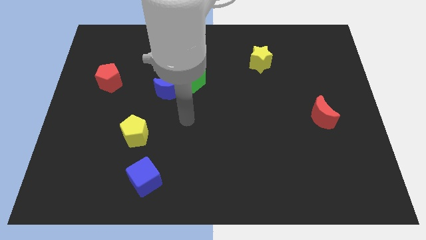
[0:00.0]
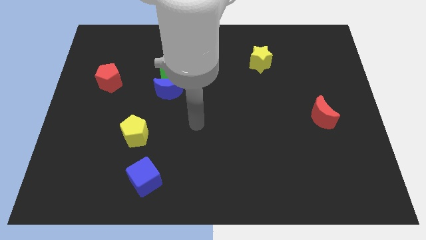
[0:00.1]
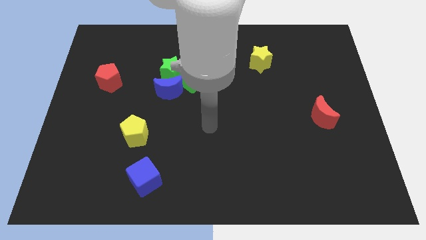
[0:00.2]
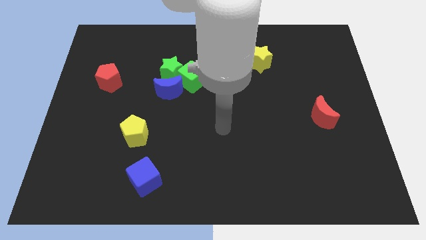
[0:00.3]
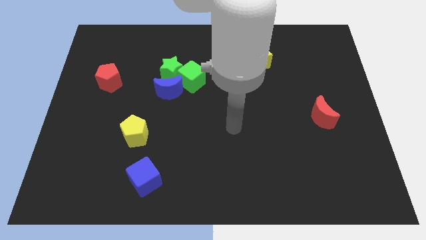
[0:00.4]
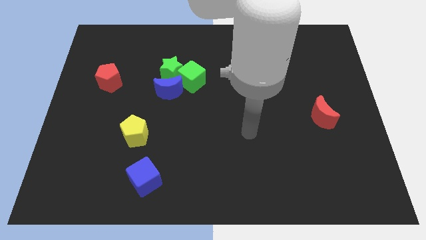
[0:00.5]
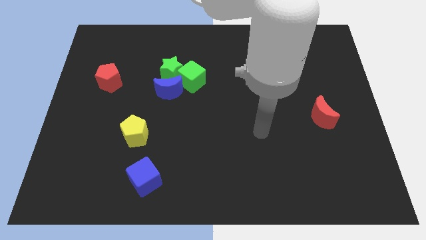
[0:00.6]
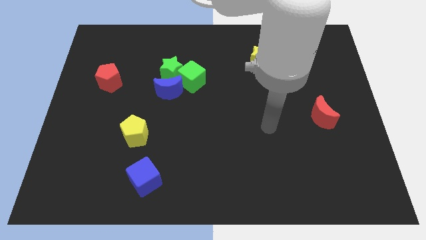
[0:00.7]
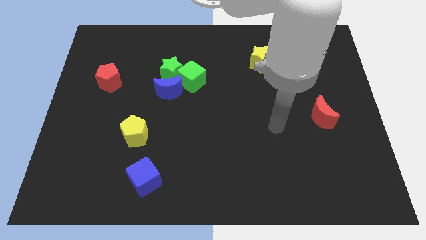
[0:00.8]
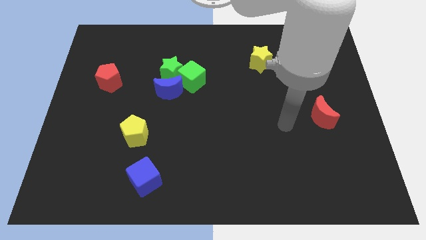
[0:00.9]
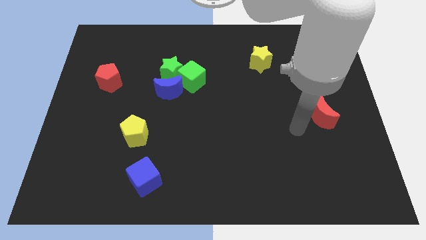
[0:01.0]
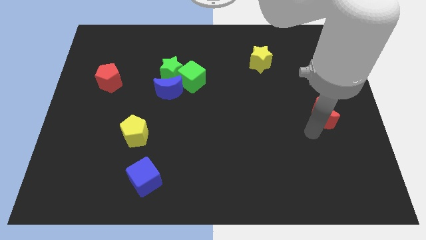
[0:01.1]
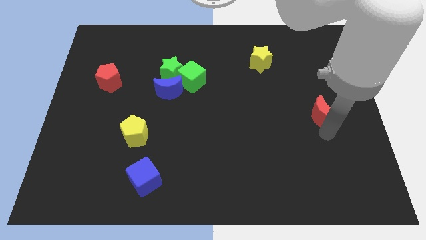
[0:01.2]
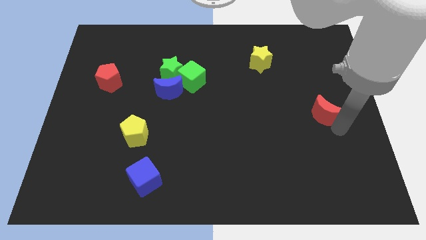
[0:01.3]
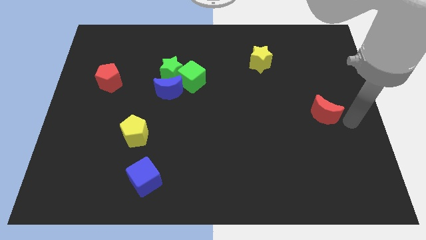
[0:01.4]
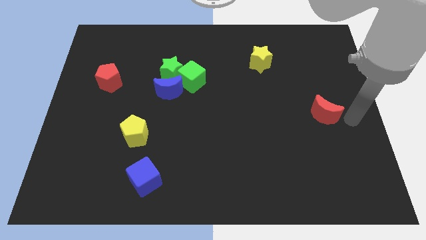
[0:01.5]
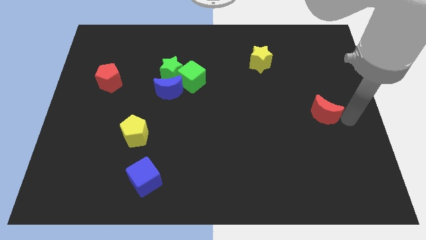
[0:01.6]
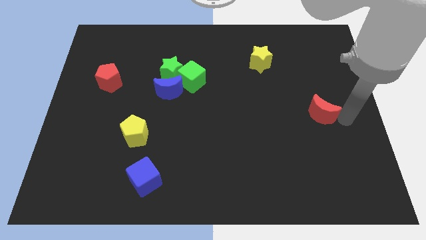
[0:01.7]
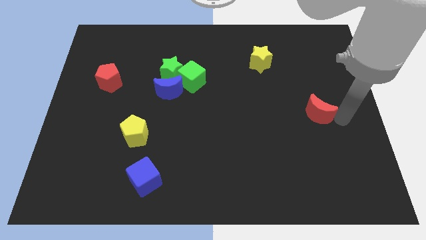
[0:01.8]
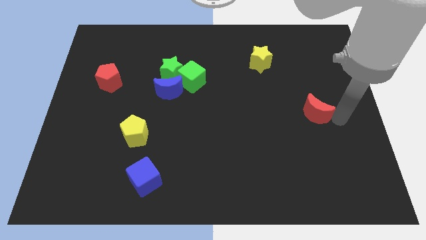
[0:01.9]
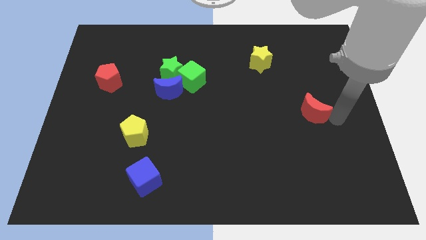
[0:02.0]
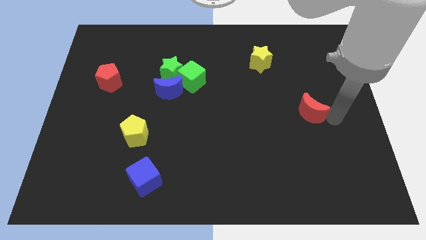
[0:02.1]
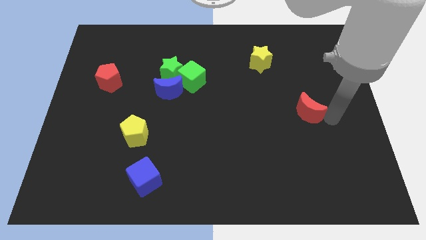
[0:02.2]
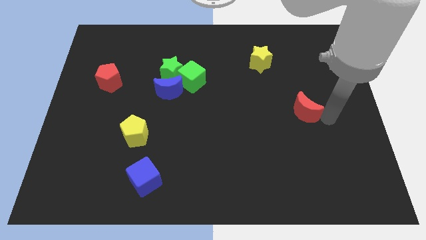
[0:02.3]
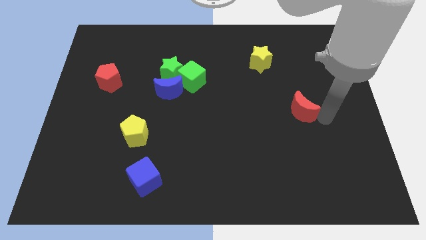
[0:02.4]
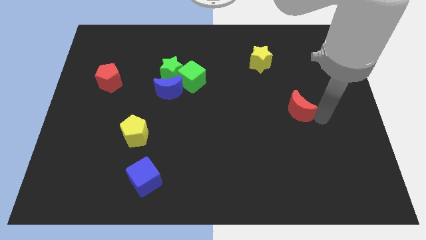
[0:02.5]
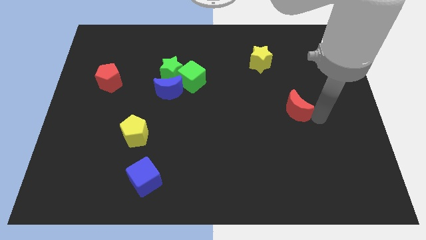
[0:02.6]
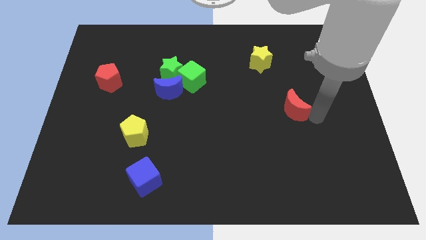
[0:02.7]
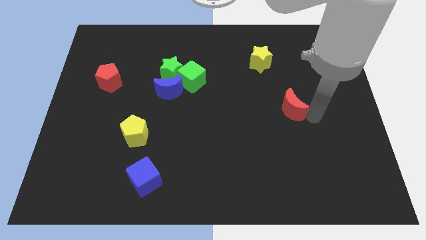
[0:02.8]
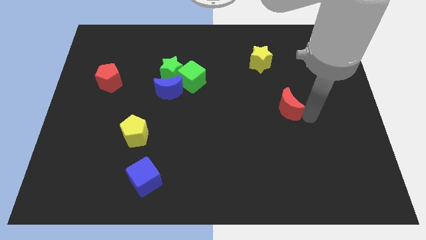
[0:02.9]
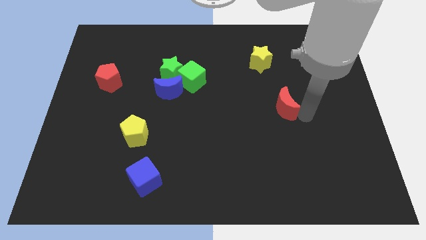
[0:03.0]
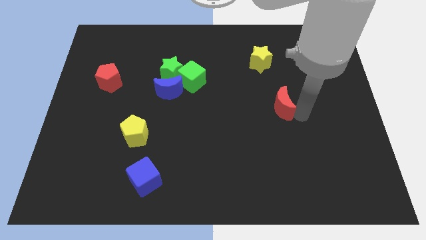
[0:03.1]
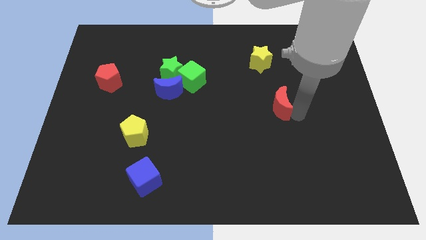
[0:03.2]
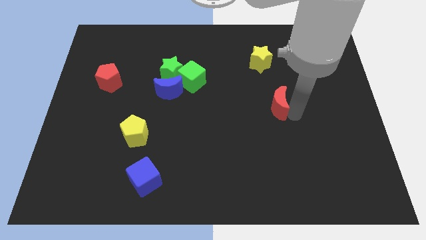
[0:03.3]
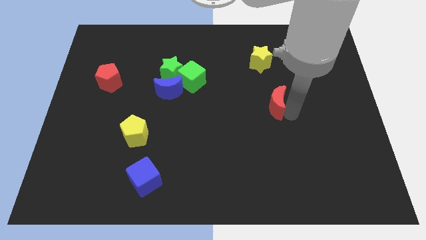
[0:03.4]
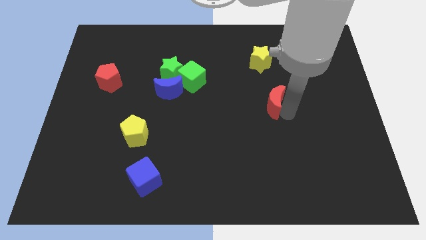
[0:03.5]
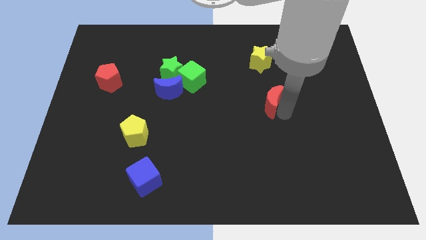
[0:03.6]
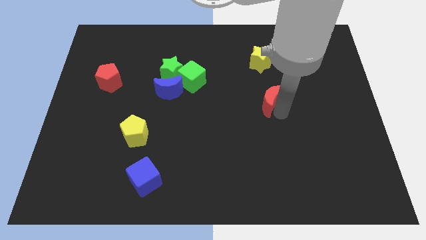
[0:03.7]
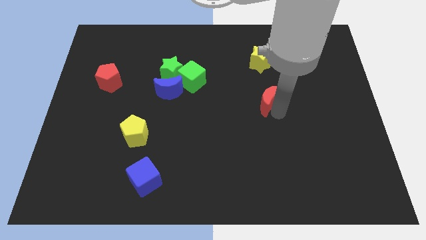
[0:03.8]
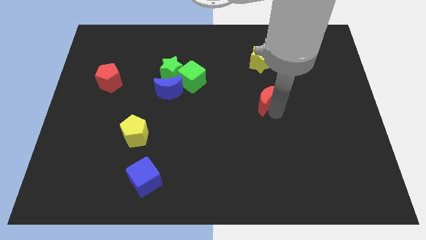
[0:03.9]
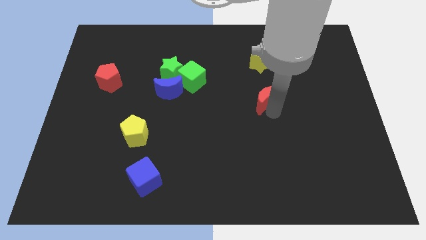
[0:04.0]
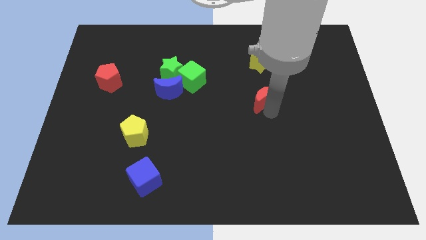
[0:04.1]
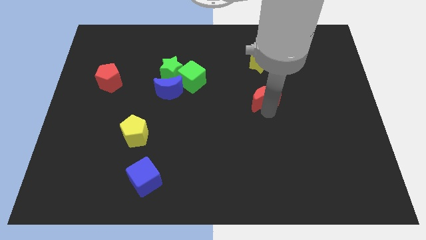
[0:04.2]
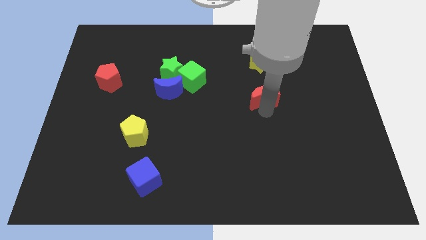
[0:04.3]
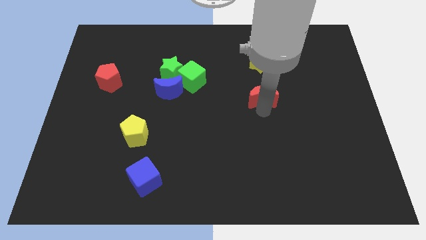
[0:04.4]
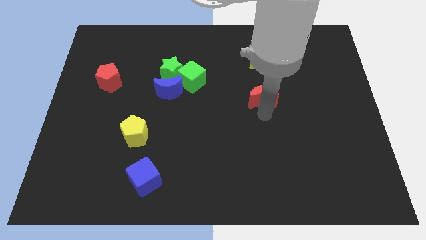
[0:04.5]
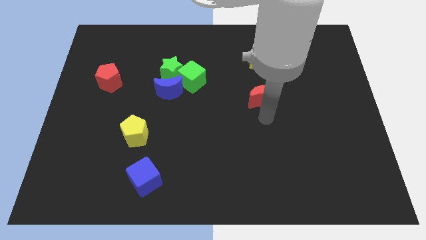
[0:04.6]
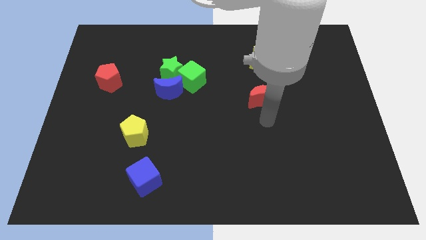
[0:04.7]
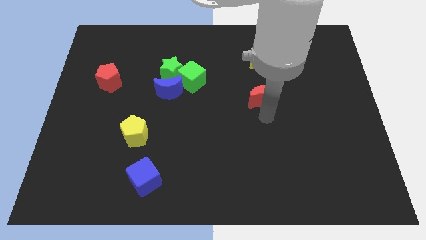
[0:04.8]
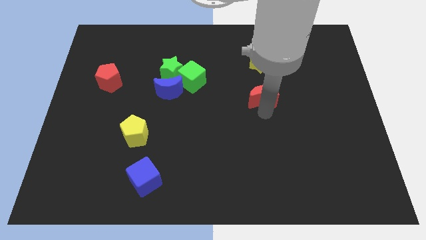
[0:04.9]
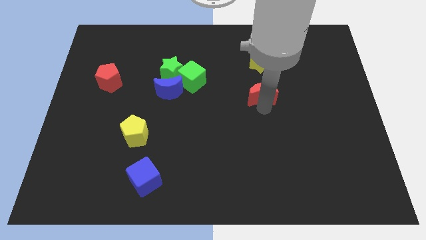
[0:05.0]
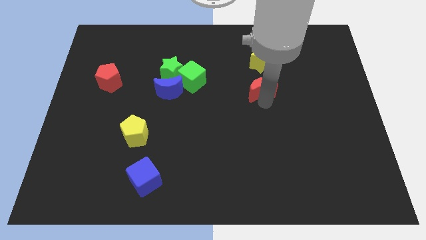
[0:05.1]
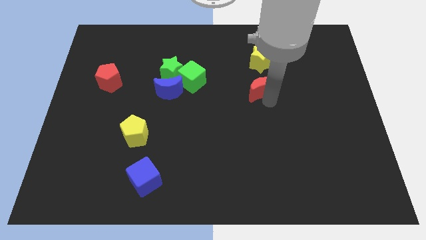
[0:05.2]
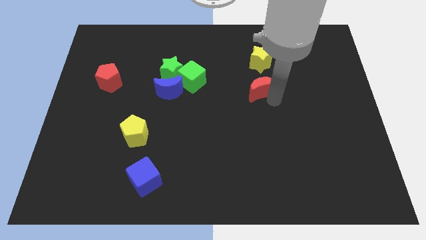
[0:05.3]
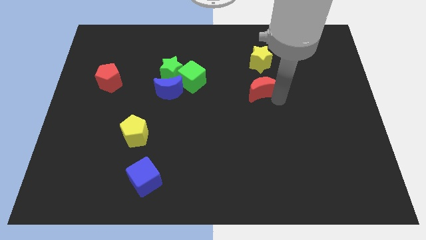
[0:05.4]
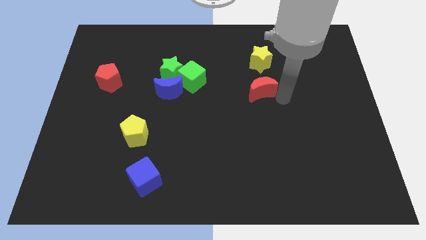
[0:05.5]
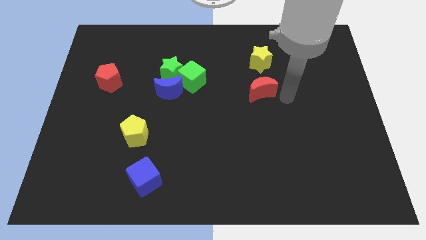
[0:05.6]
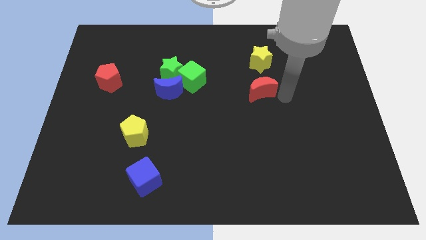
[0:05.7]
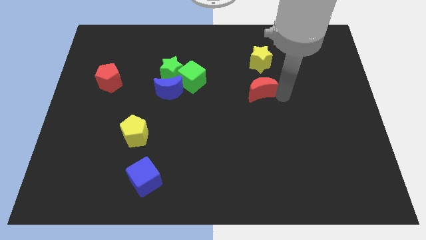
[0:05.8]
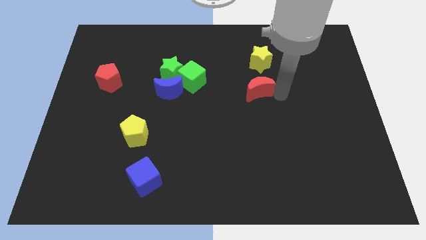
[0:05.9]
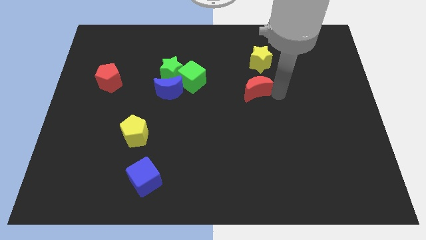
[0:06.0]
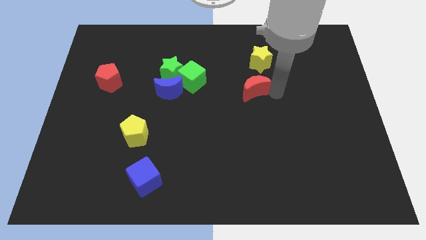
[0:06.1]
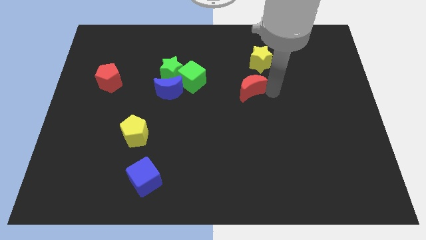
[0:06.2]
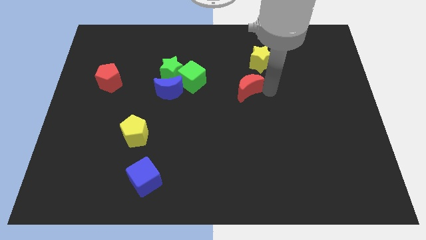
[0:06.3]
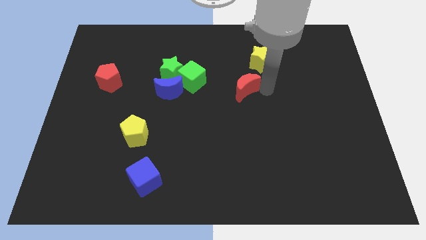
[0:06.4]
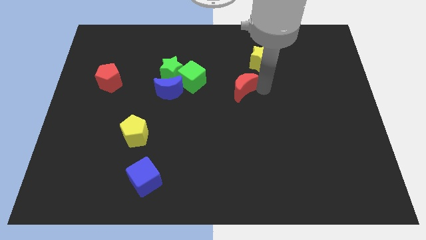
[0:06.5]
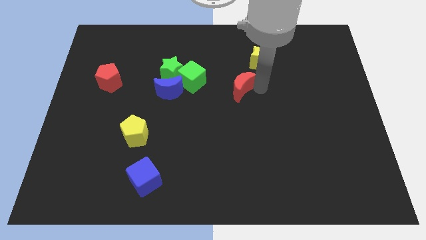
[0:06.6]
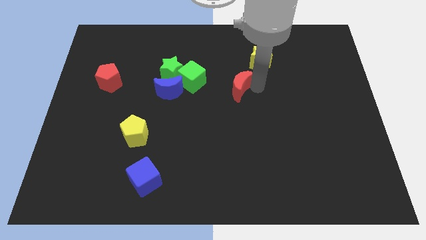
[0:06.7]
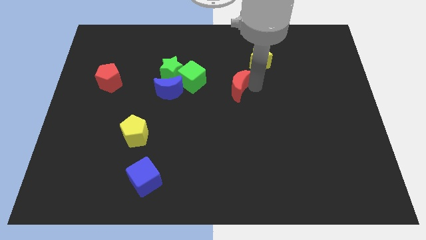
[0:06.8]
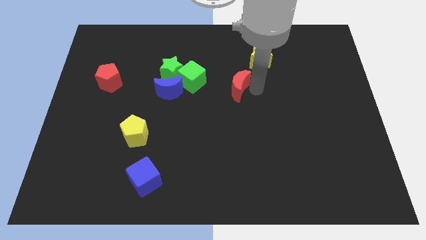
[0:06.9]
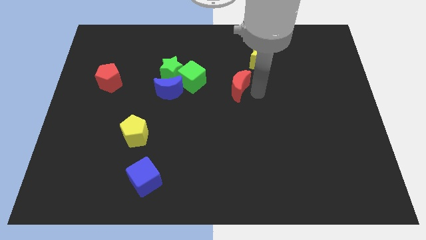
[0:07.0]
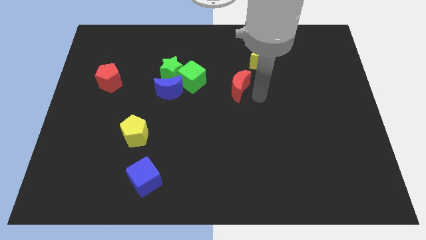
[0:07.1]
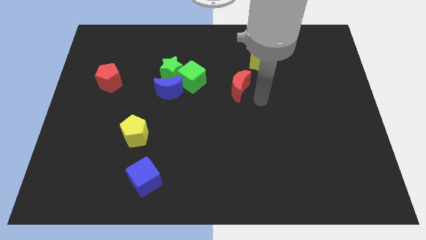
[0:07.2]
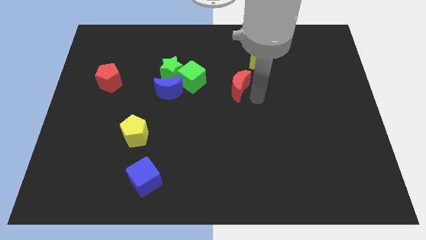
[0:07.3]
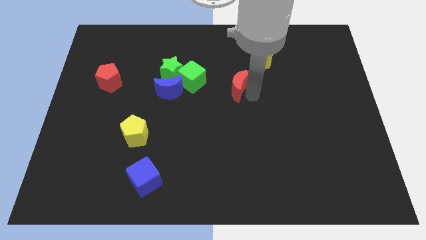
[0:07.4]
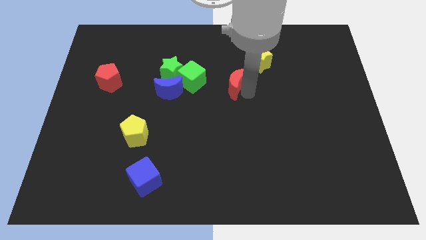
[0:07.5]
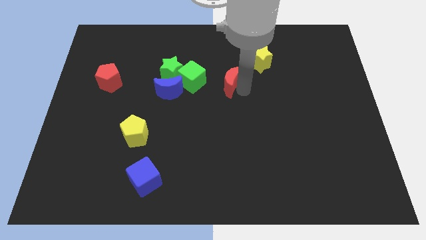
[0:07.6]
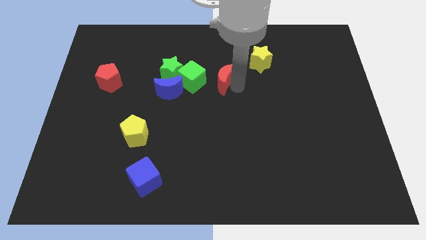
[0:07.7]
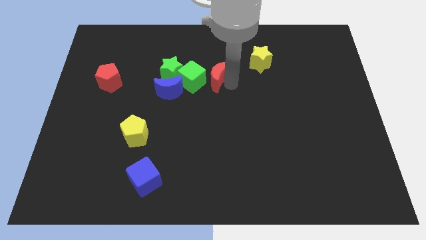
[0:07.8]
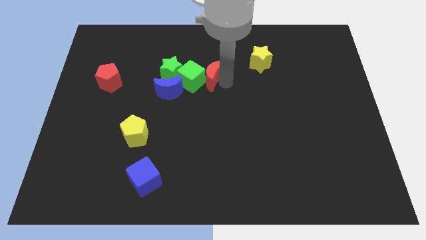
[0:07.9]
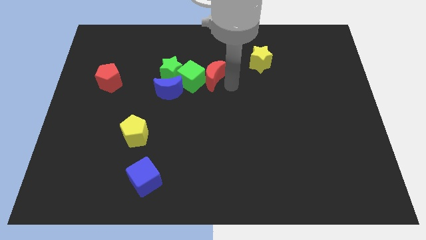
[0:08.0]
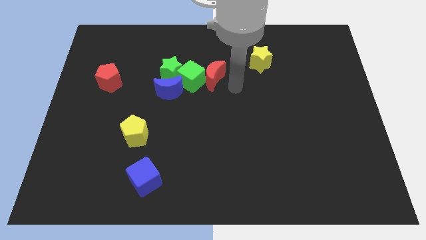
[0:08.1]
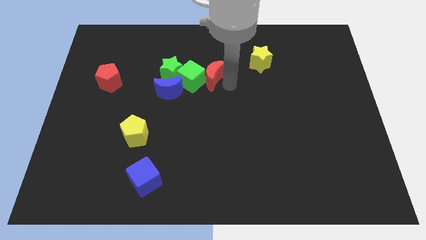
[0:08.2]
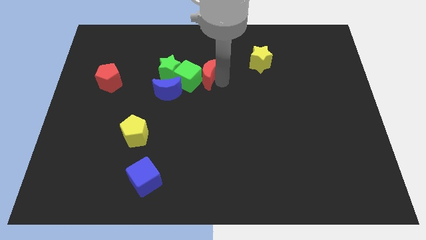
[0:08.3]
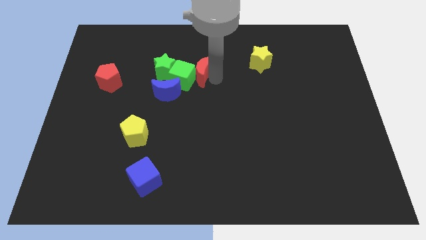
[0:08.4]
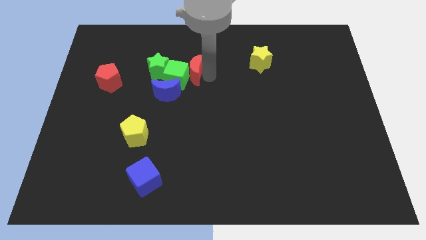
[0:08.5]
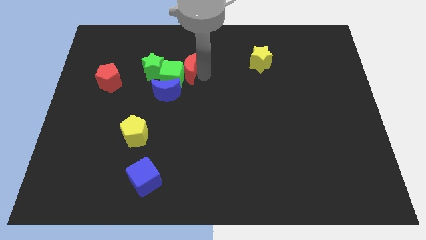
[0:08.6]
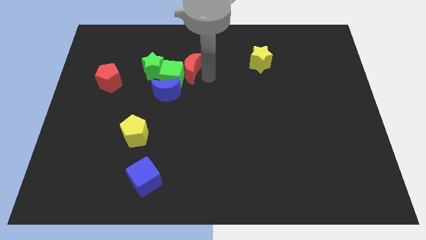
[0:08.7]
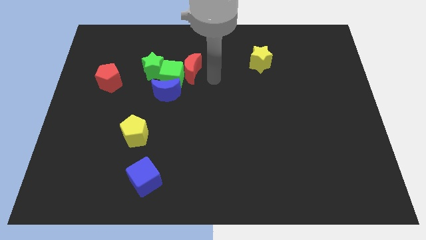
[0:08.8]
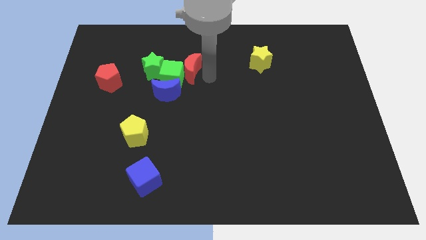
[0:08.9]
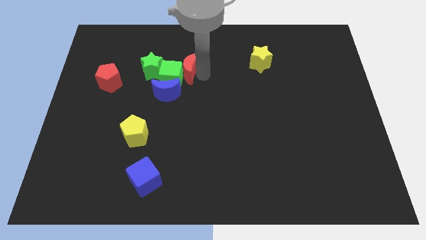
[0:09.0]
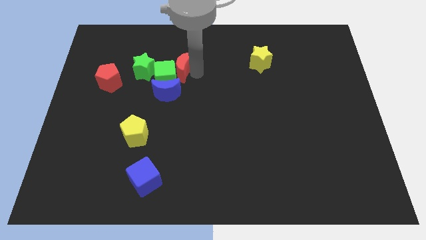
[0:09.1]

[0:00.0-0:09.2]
move the red moon above the blue moon
